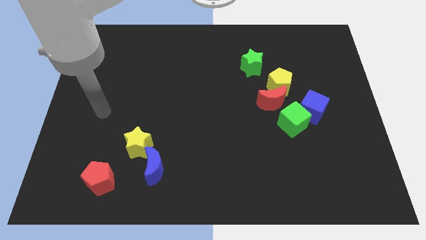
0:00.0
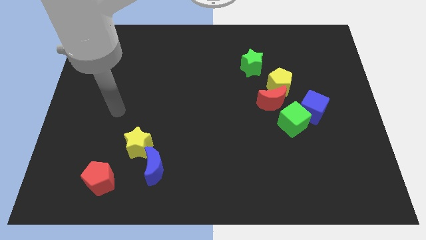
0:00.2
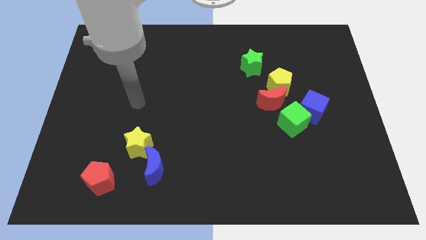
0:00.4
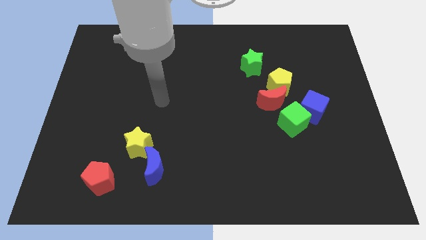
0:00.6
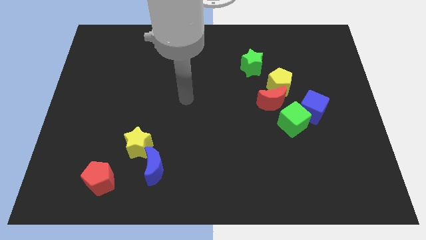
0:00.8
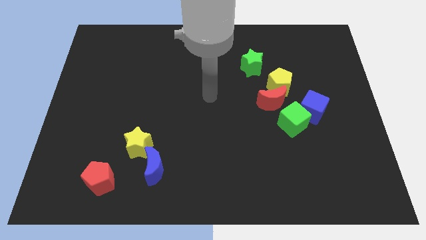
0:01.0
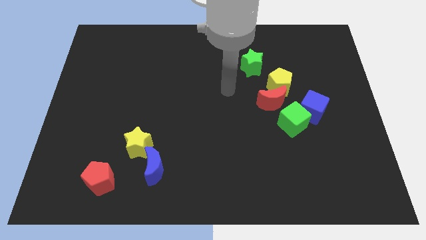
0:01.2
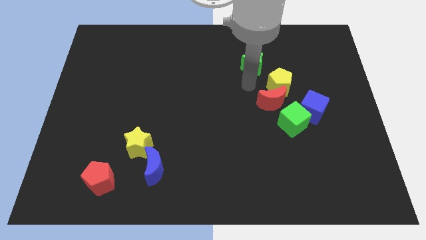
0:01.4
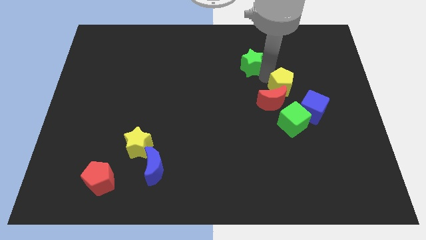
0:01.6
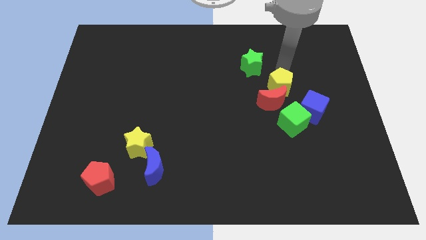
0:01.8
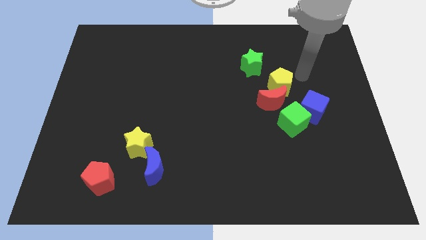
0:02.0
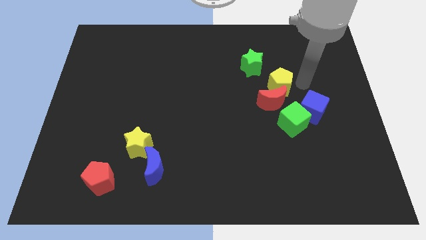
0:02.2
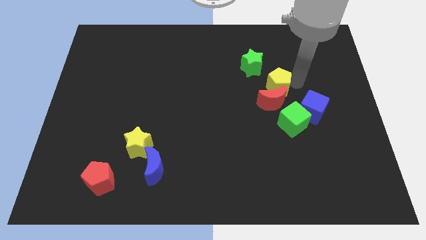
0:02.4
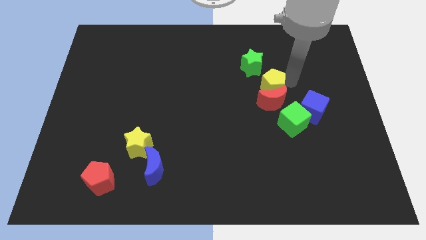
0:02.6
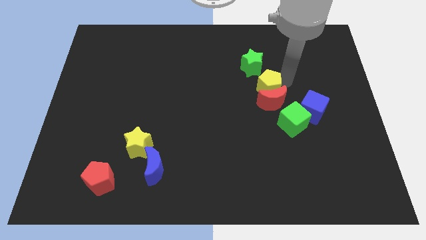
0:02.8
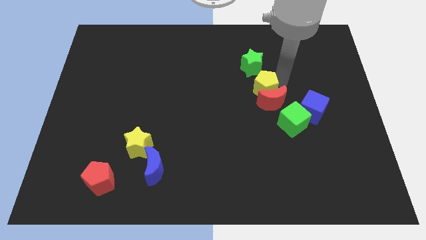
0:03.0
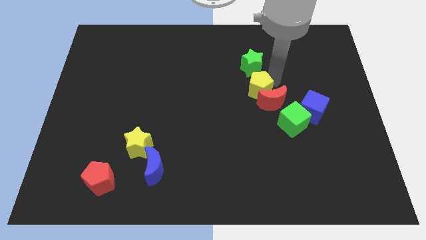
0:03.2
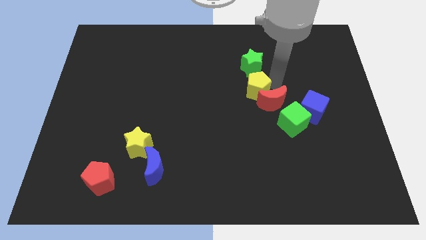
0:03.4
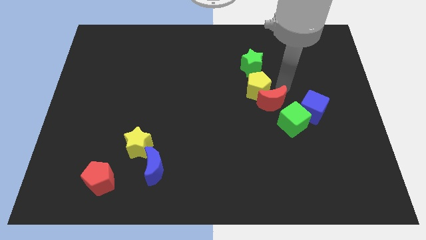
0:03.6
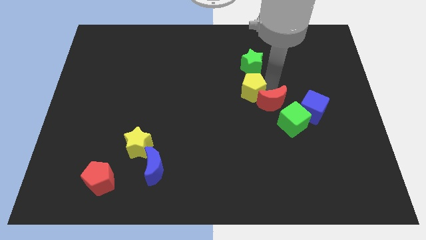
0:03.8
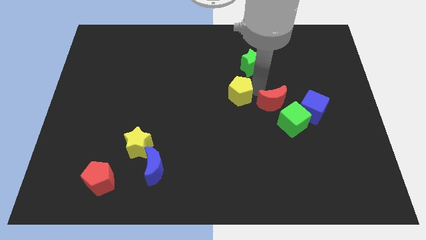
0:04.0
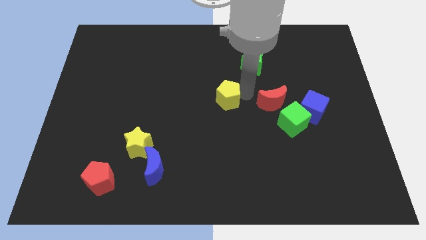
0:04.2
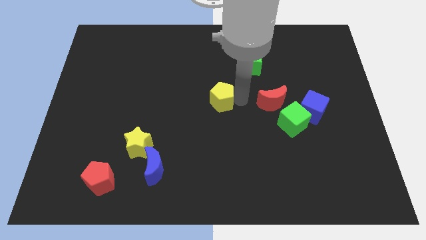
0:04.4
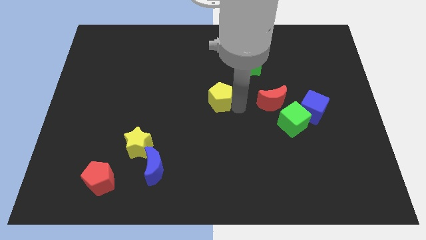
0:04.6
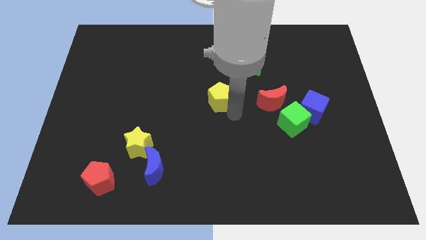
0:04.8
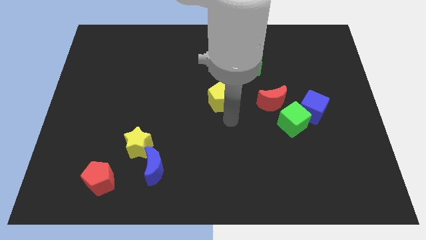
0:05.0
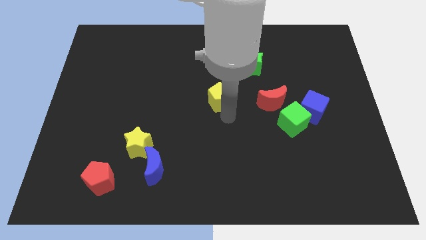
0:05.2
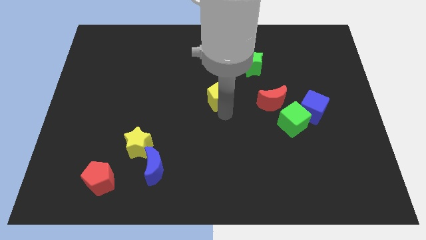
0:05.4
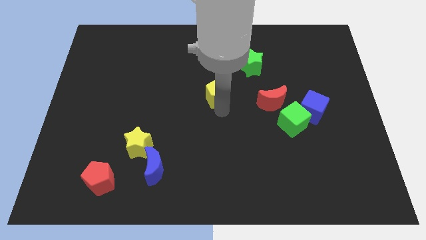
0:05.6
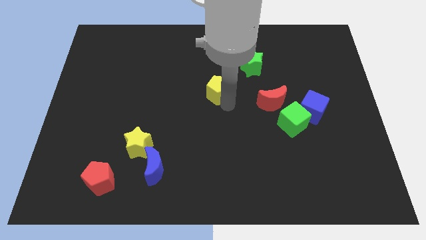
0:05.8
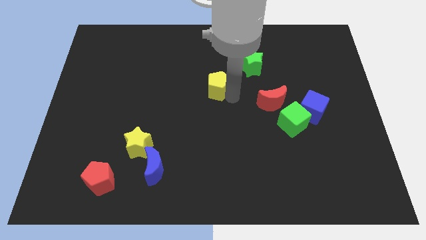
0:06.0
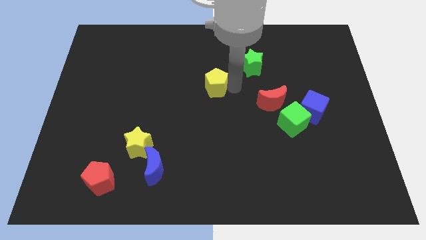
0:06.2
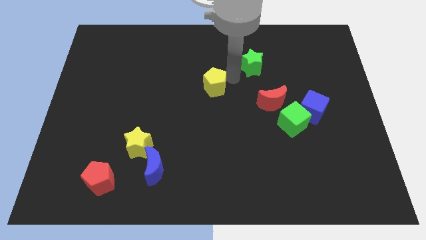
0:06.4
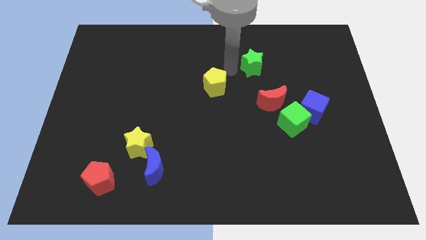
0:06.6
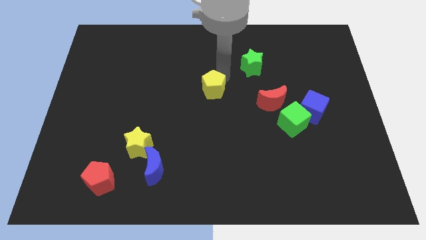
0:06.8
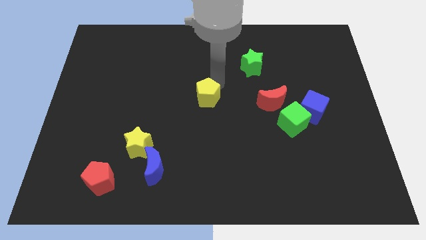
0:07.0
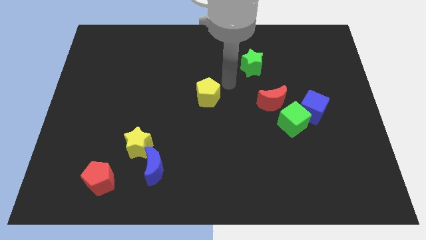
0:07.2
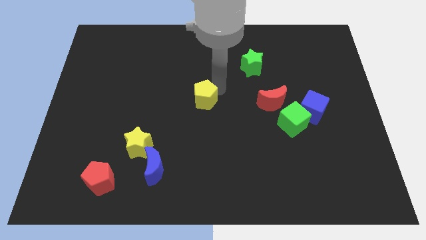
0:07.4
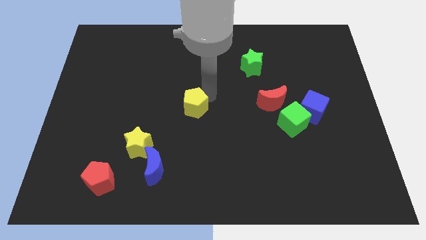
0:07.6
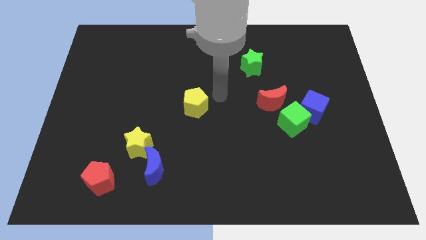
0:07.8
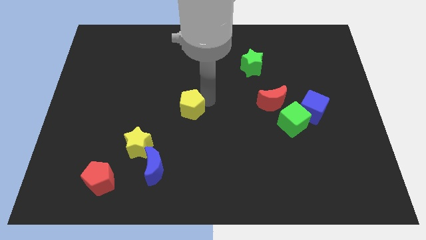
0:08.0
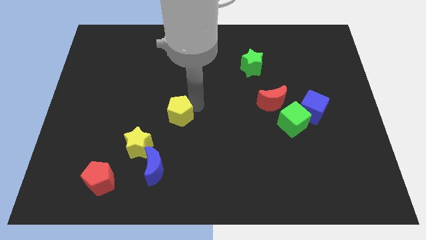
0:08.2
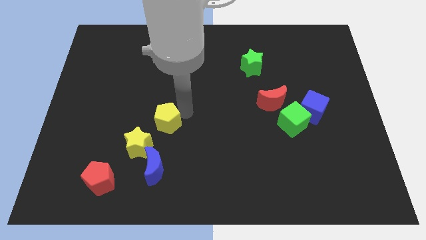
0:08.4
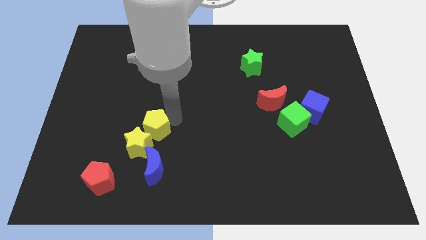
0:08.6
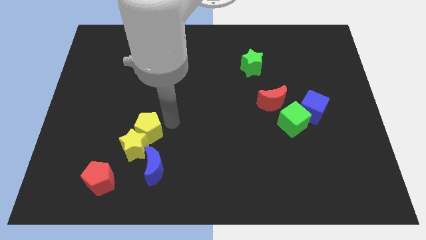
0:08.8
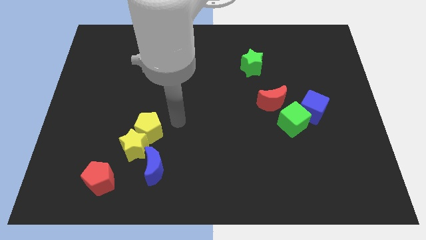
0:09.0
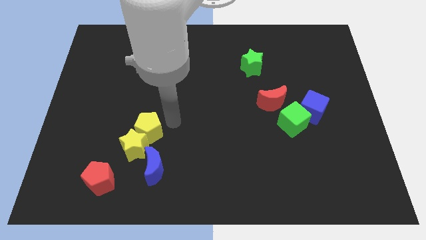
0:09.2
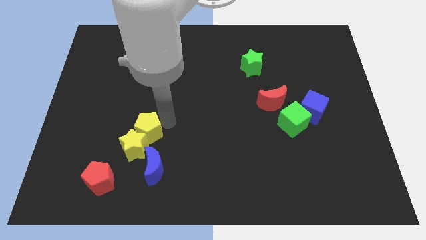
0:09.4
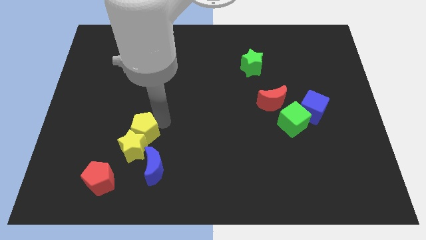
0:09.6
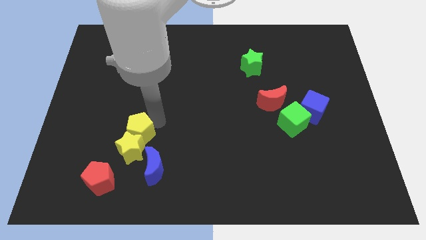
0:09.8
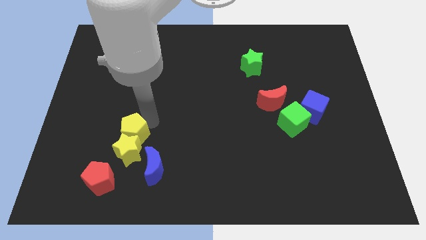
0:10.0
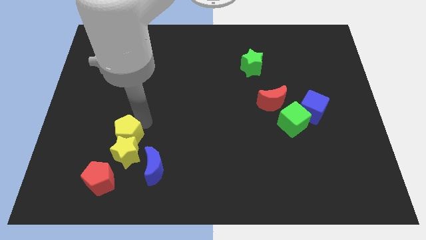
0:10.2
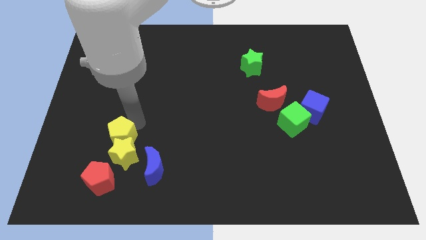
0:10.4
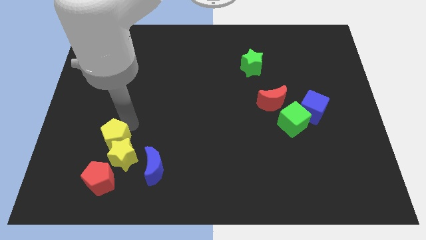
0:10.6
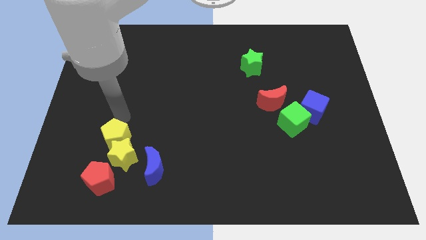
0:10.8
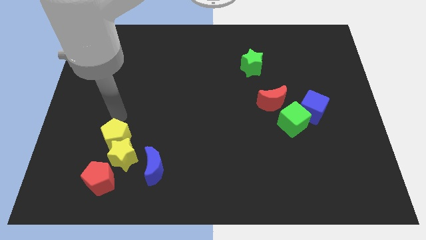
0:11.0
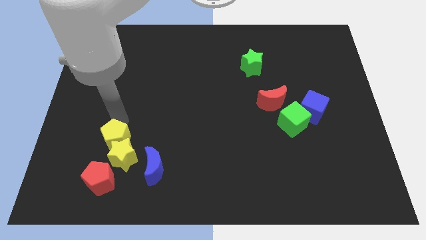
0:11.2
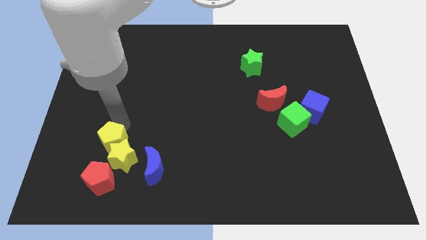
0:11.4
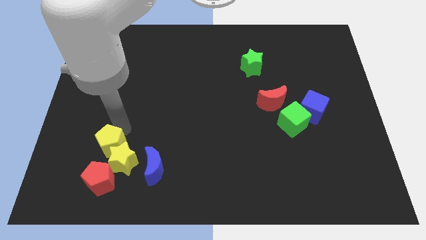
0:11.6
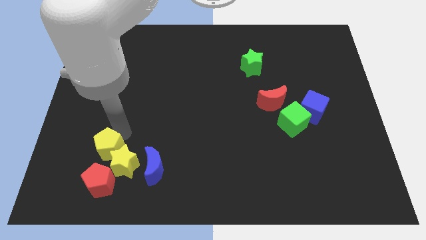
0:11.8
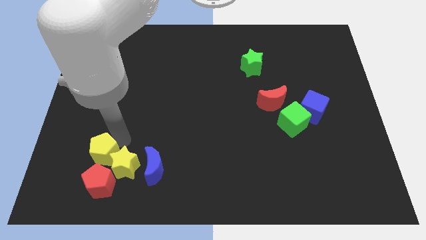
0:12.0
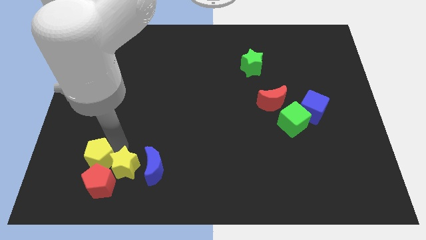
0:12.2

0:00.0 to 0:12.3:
move the yellow pentagon close to the red pentagon

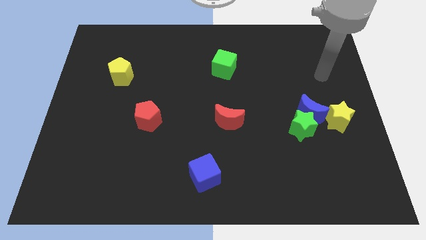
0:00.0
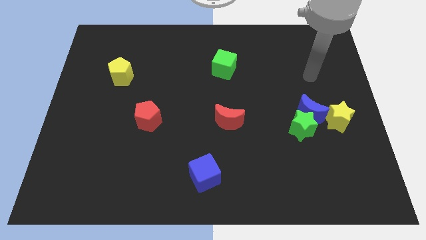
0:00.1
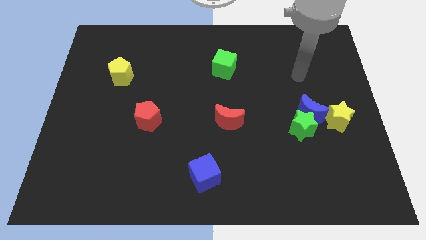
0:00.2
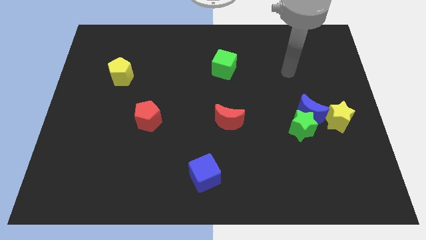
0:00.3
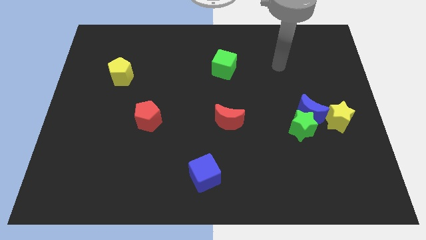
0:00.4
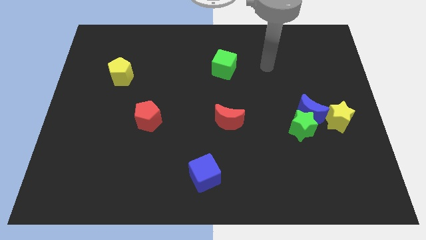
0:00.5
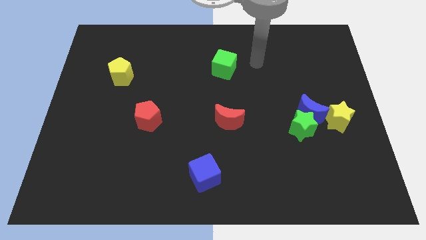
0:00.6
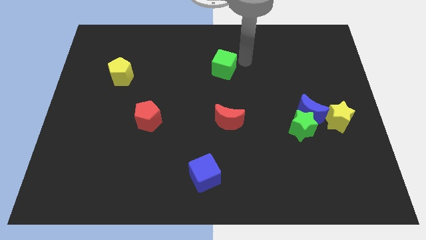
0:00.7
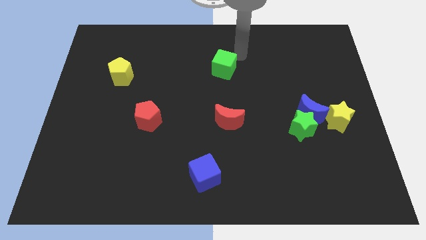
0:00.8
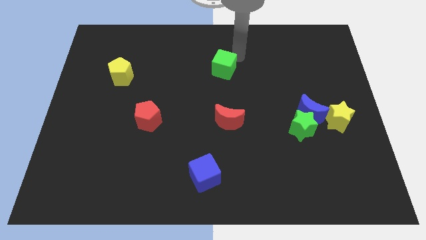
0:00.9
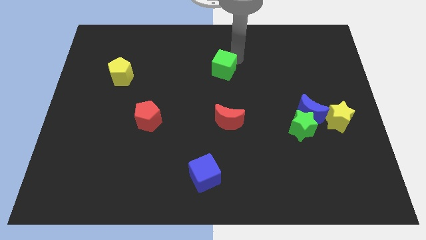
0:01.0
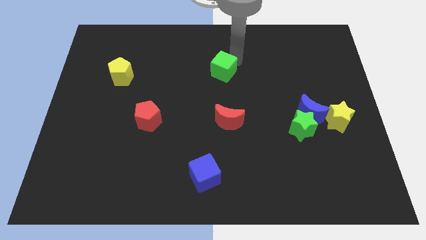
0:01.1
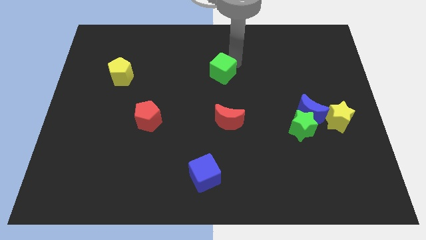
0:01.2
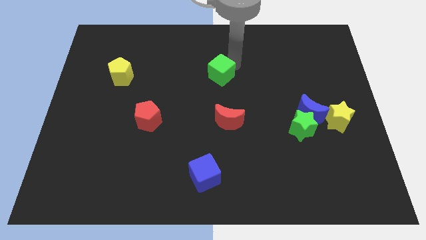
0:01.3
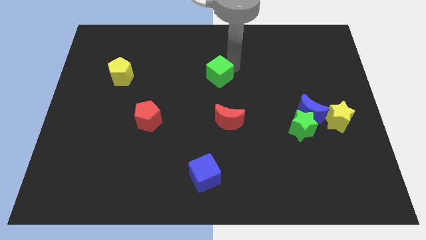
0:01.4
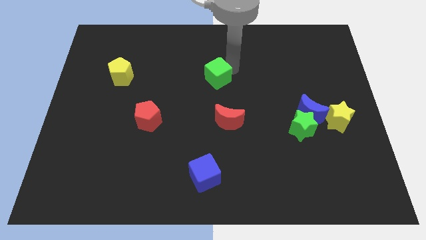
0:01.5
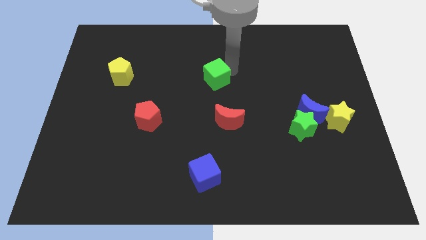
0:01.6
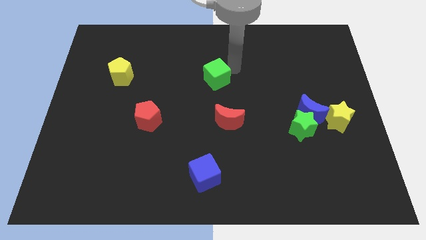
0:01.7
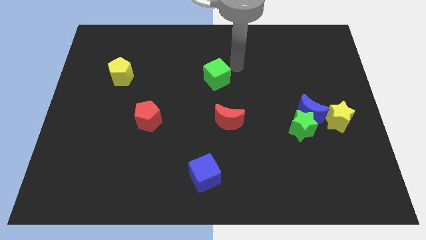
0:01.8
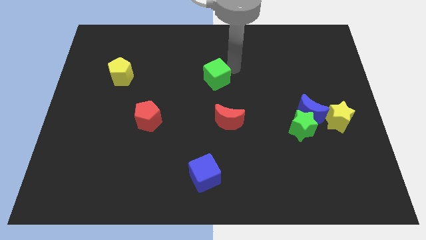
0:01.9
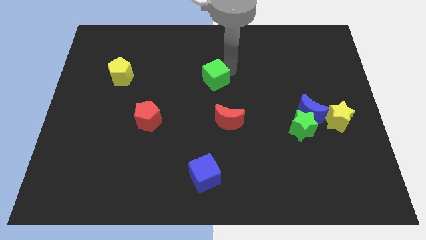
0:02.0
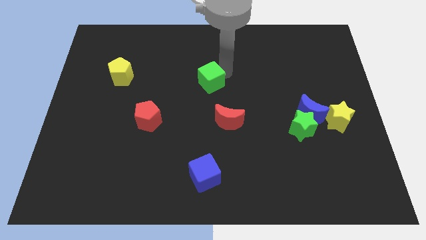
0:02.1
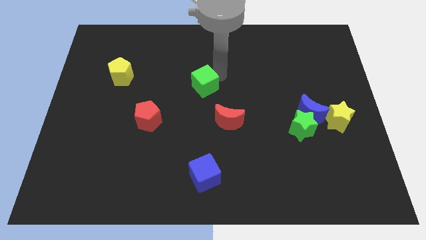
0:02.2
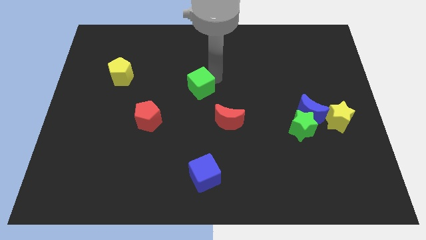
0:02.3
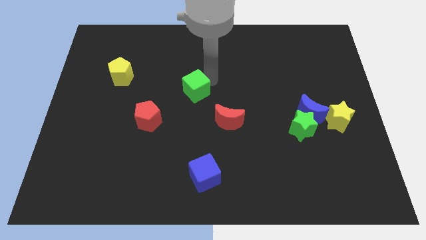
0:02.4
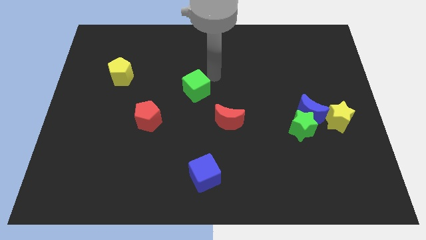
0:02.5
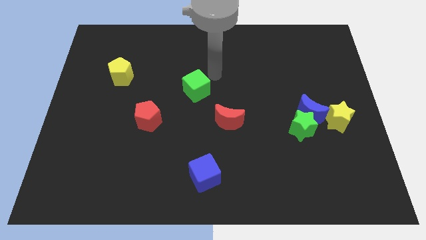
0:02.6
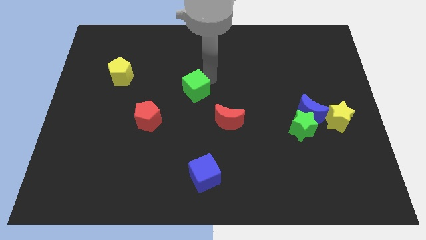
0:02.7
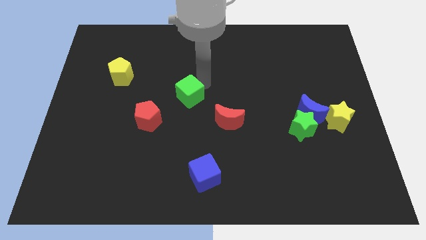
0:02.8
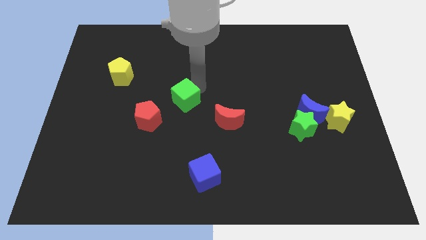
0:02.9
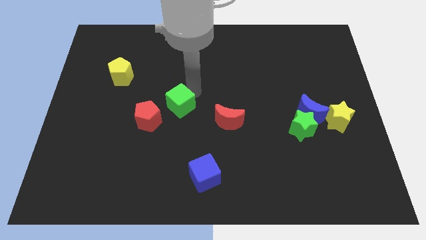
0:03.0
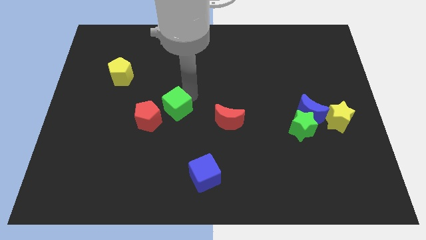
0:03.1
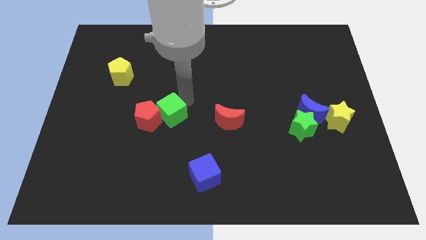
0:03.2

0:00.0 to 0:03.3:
put the green cube to the red pentagon
